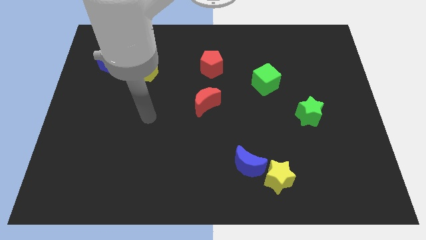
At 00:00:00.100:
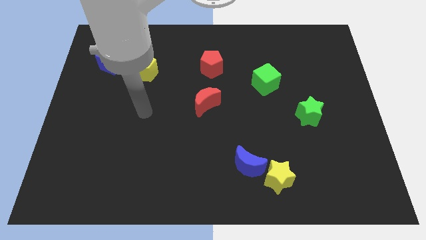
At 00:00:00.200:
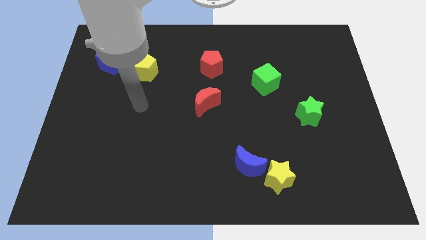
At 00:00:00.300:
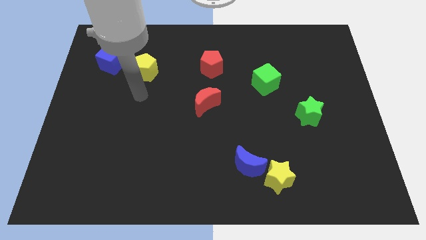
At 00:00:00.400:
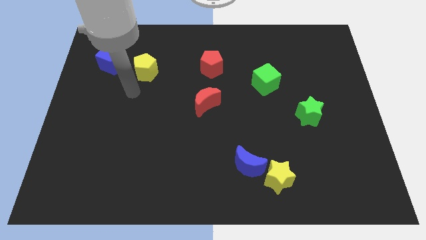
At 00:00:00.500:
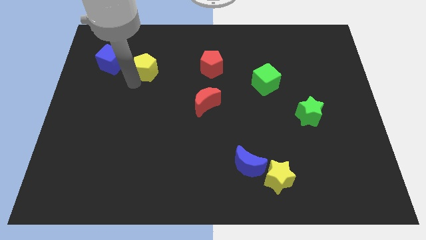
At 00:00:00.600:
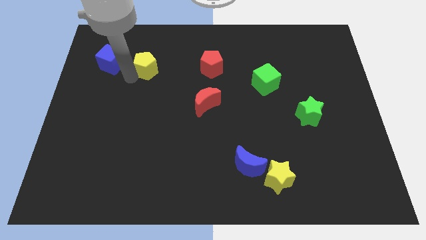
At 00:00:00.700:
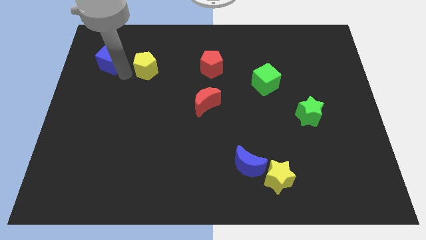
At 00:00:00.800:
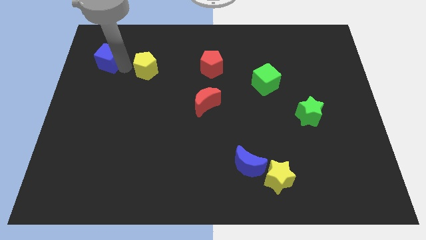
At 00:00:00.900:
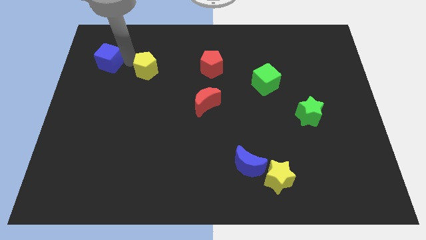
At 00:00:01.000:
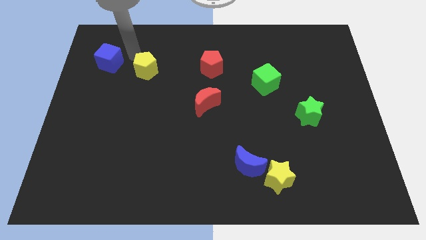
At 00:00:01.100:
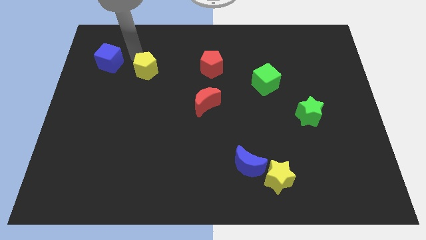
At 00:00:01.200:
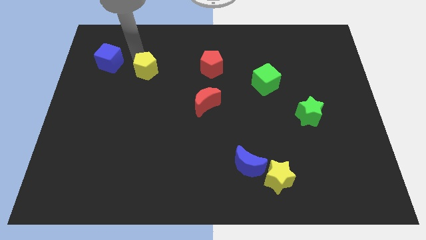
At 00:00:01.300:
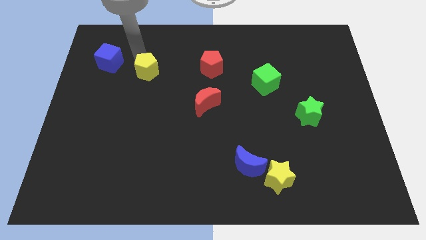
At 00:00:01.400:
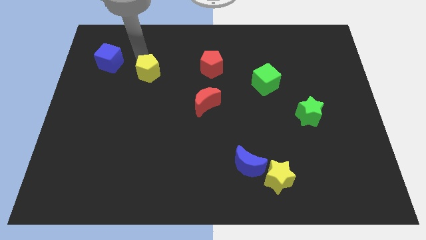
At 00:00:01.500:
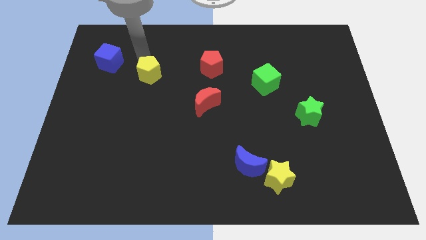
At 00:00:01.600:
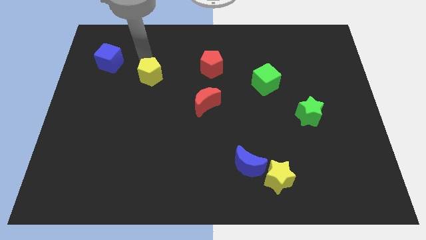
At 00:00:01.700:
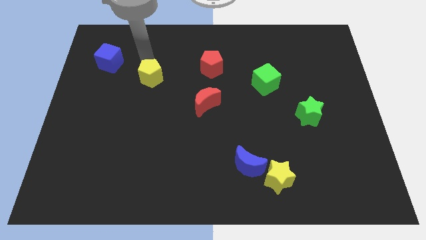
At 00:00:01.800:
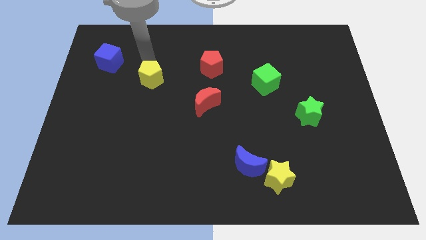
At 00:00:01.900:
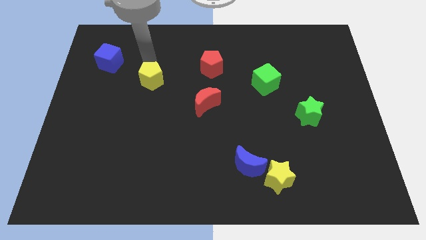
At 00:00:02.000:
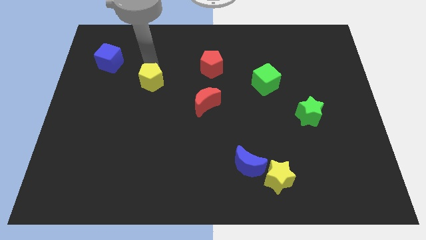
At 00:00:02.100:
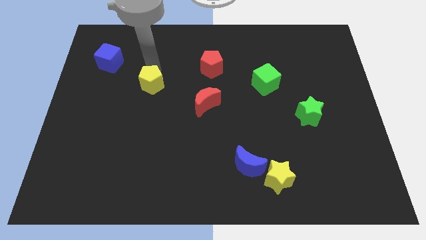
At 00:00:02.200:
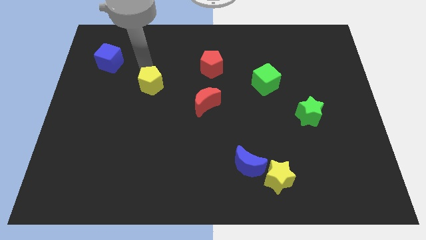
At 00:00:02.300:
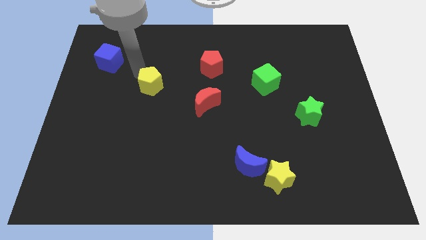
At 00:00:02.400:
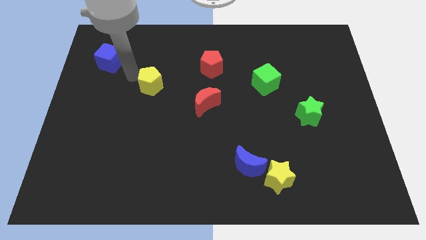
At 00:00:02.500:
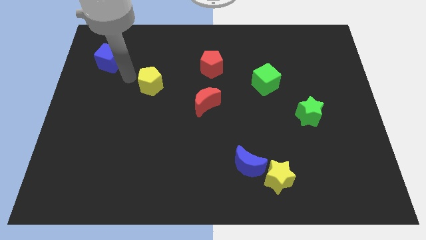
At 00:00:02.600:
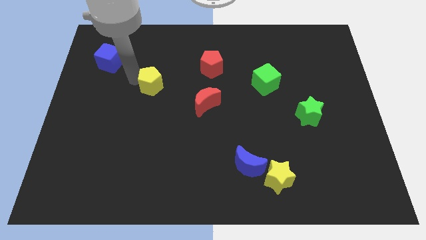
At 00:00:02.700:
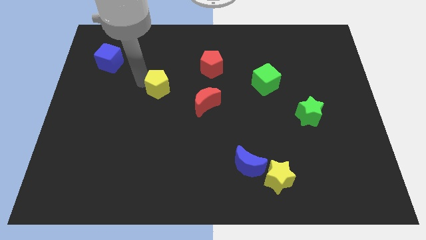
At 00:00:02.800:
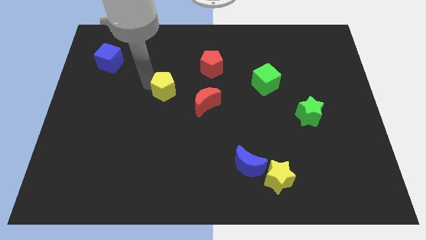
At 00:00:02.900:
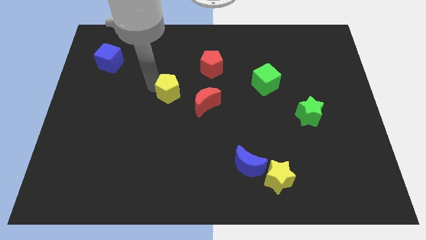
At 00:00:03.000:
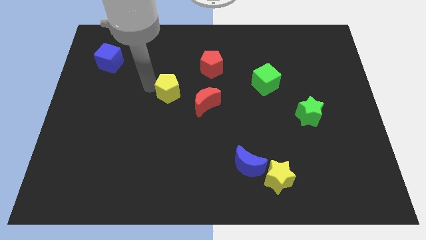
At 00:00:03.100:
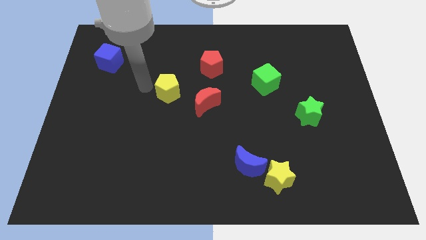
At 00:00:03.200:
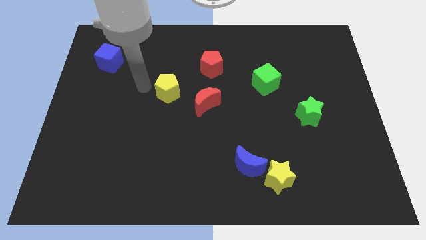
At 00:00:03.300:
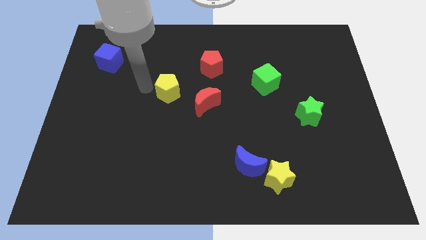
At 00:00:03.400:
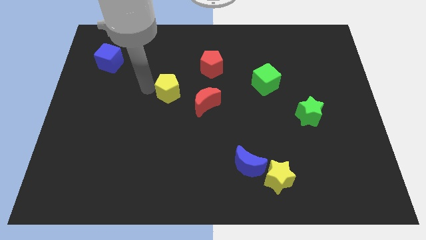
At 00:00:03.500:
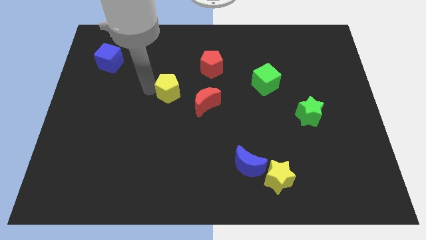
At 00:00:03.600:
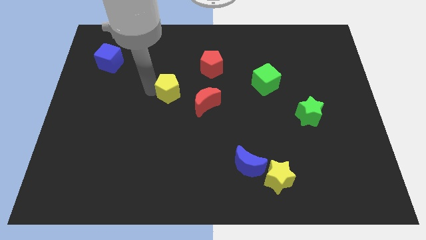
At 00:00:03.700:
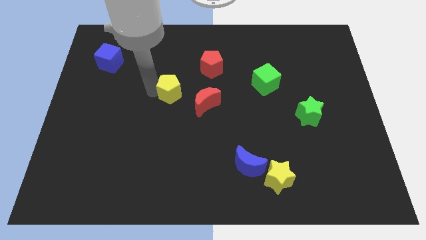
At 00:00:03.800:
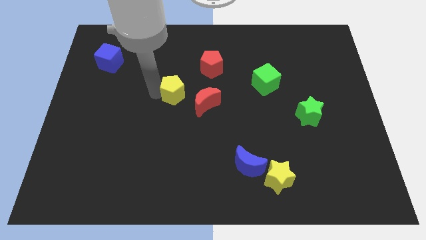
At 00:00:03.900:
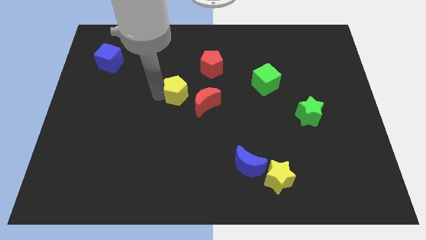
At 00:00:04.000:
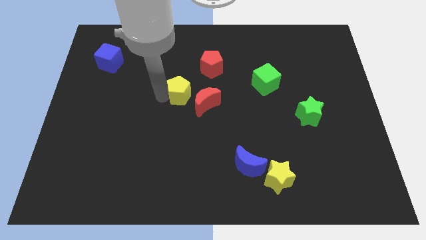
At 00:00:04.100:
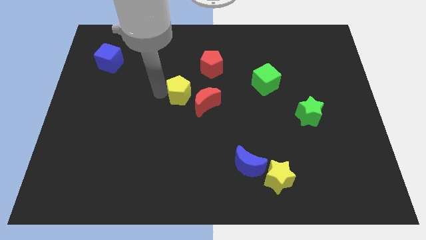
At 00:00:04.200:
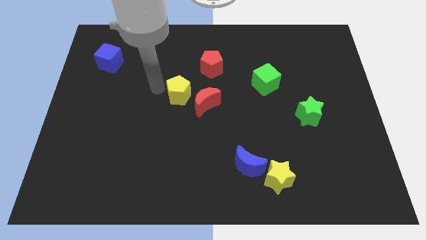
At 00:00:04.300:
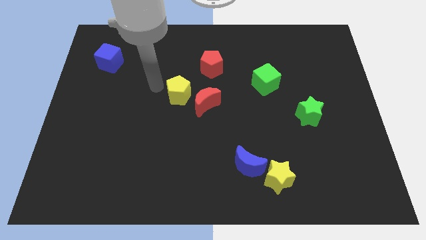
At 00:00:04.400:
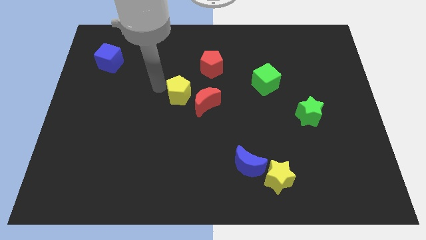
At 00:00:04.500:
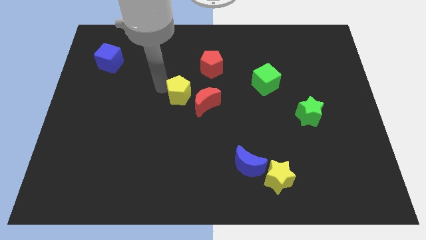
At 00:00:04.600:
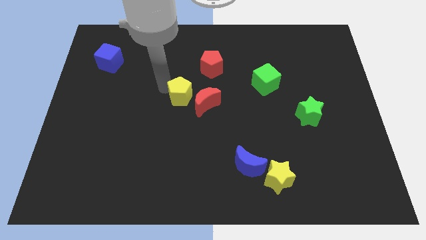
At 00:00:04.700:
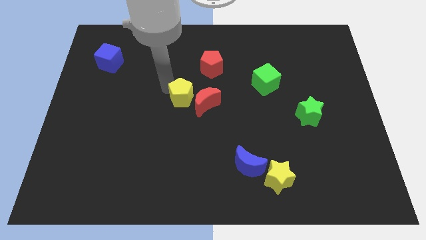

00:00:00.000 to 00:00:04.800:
put the yellow pentagon next to the red moon

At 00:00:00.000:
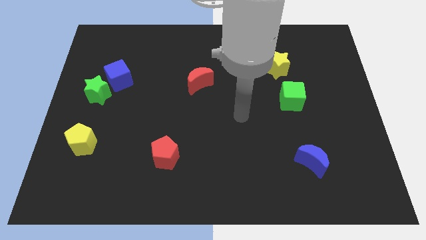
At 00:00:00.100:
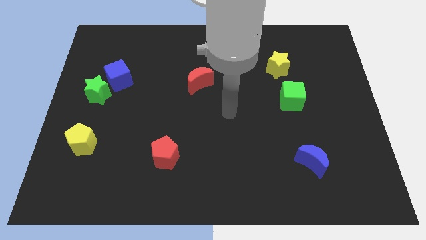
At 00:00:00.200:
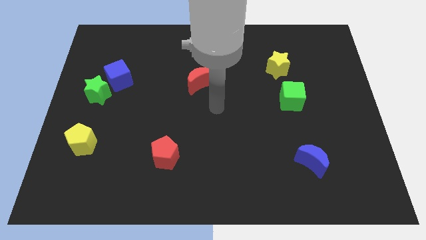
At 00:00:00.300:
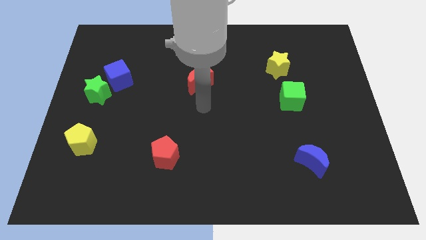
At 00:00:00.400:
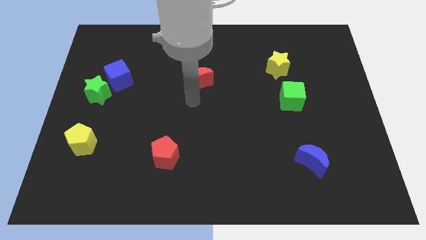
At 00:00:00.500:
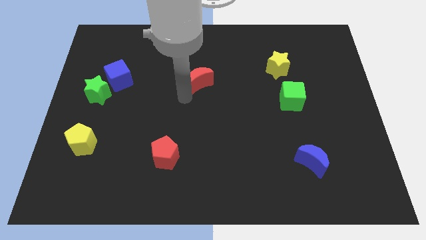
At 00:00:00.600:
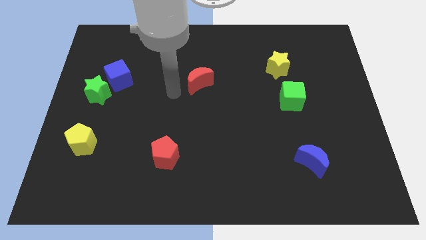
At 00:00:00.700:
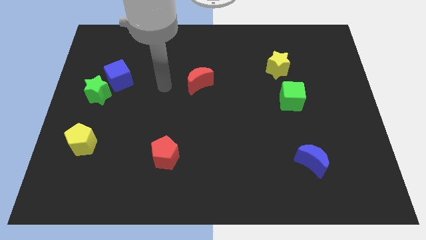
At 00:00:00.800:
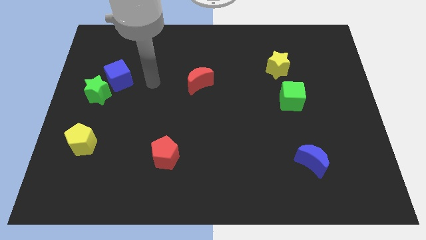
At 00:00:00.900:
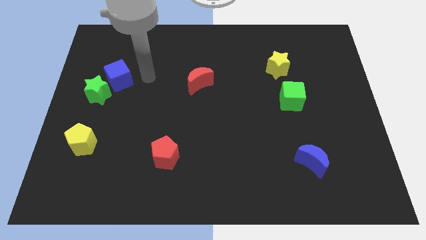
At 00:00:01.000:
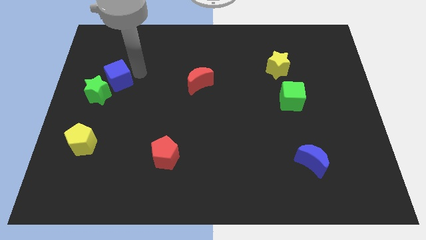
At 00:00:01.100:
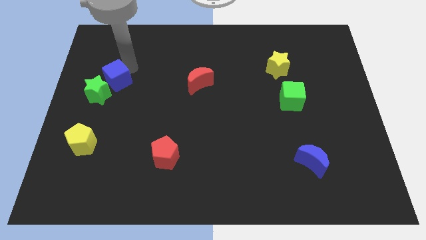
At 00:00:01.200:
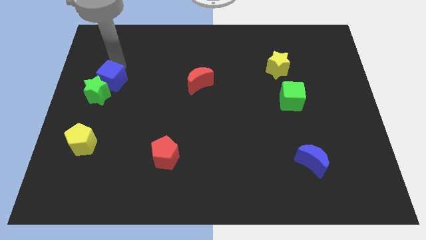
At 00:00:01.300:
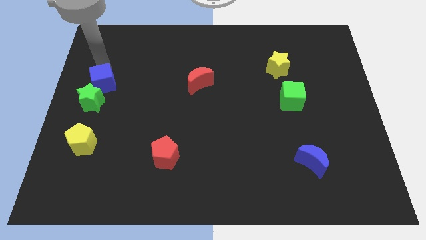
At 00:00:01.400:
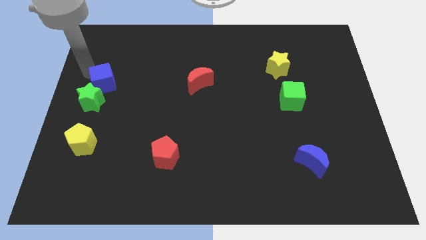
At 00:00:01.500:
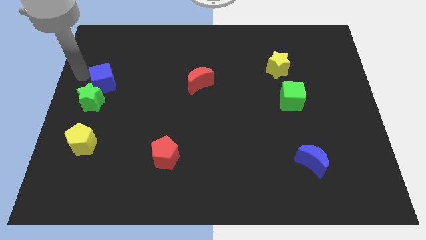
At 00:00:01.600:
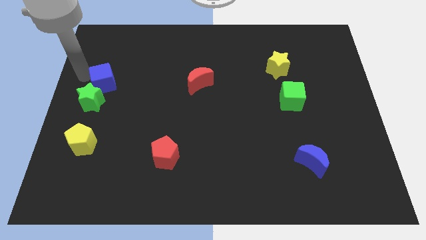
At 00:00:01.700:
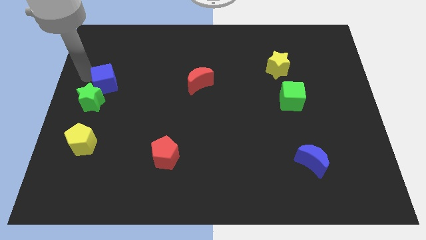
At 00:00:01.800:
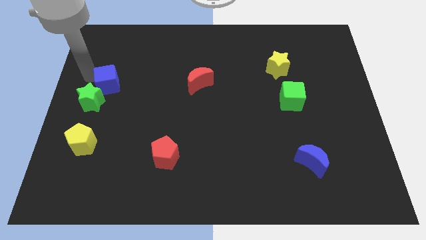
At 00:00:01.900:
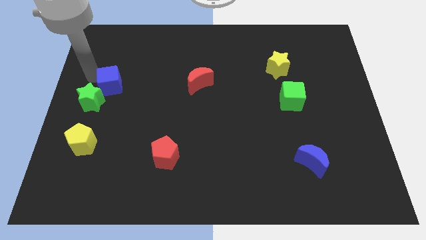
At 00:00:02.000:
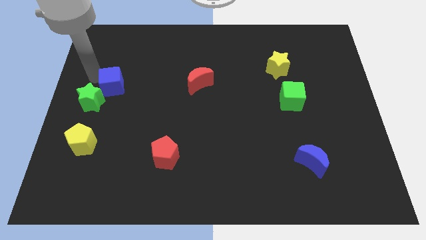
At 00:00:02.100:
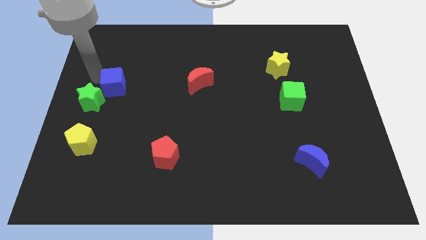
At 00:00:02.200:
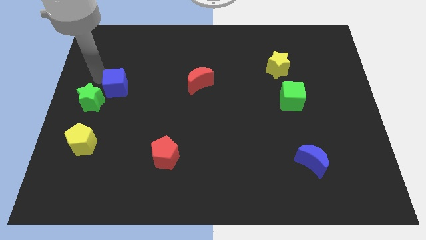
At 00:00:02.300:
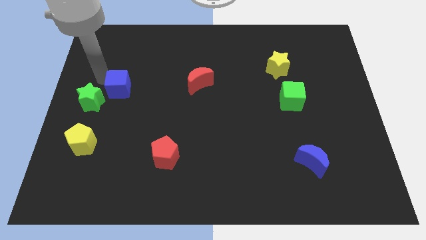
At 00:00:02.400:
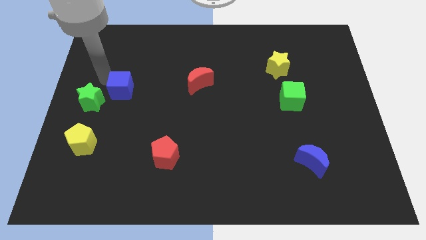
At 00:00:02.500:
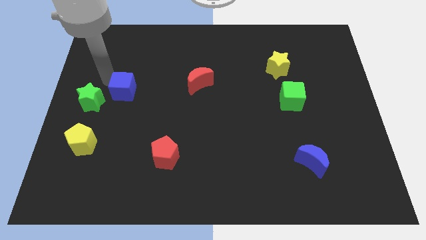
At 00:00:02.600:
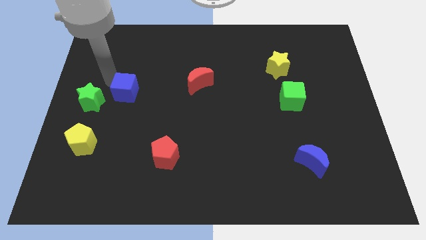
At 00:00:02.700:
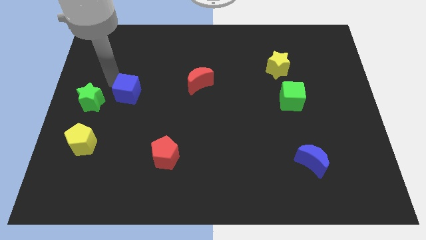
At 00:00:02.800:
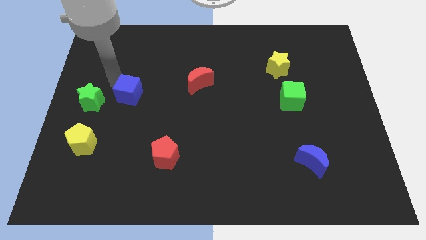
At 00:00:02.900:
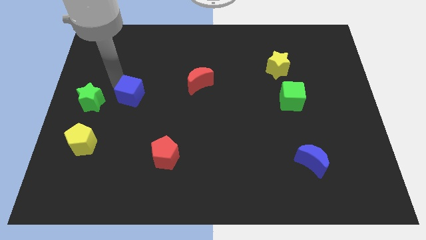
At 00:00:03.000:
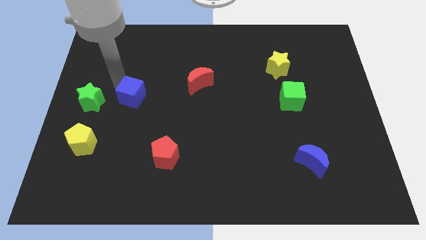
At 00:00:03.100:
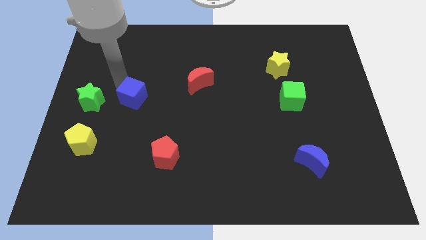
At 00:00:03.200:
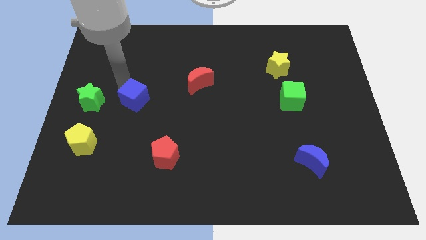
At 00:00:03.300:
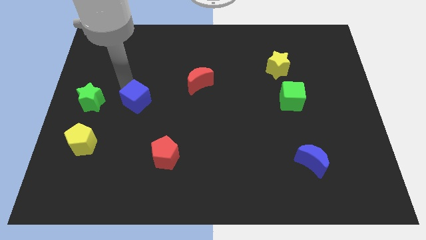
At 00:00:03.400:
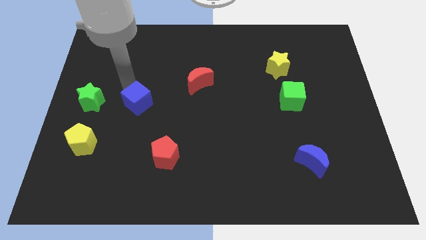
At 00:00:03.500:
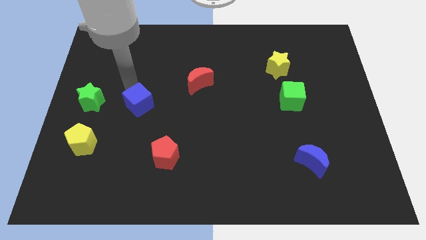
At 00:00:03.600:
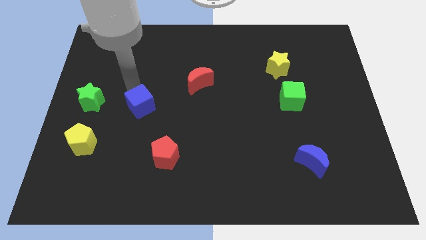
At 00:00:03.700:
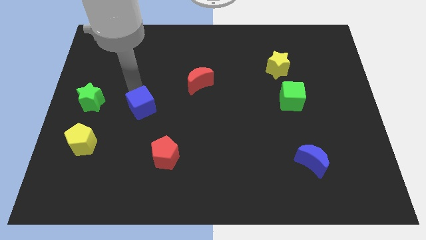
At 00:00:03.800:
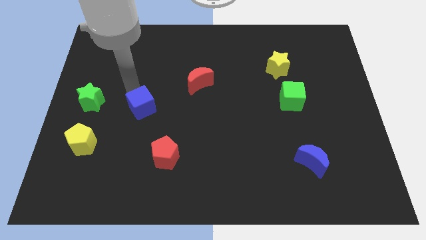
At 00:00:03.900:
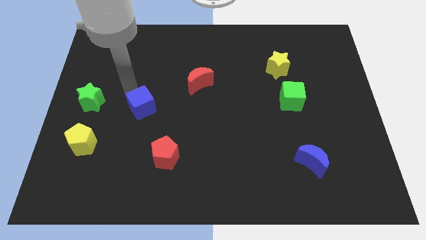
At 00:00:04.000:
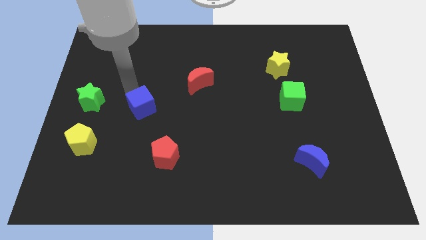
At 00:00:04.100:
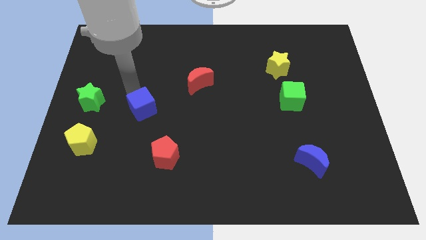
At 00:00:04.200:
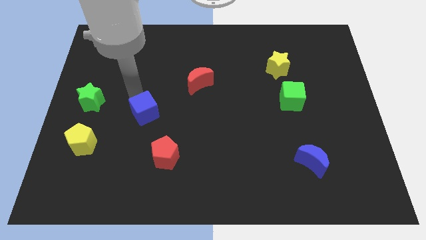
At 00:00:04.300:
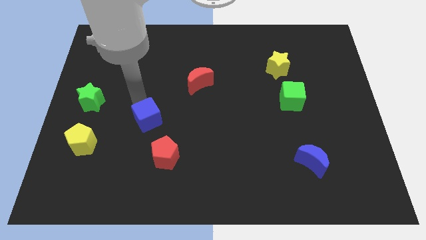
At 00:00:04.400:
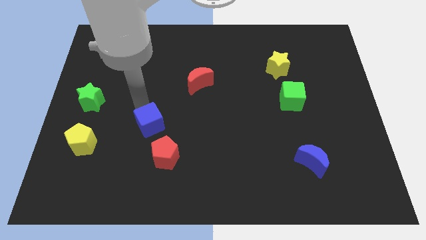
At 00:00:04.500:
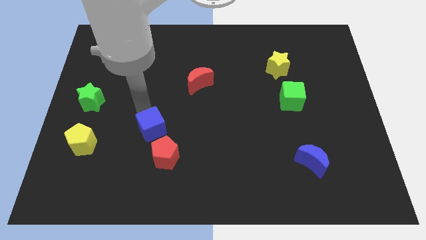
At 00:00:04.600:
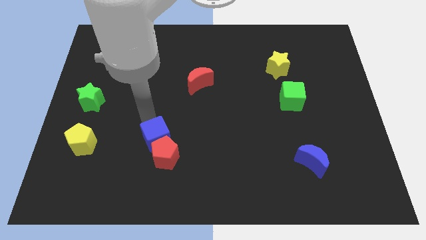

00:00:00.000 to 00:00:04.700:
slide the blue cube to the red pentagon
